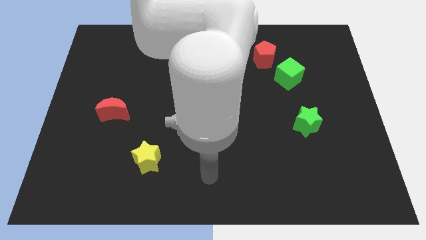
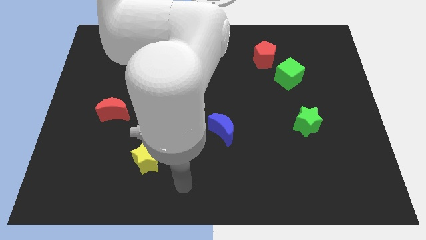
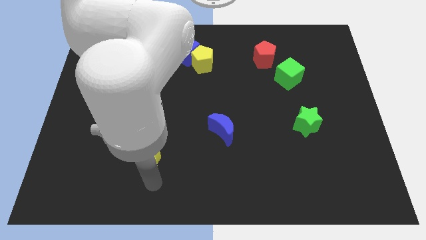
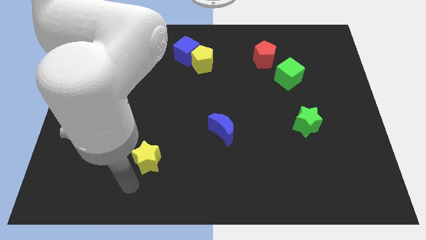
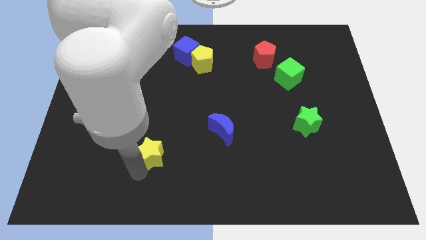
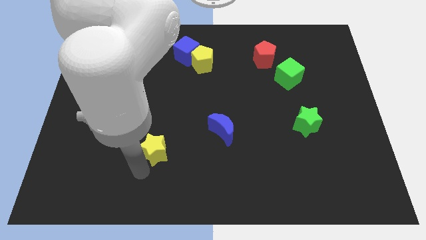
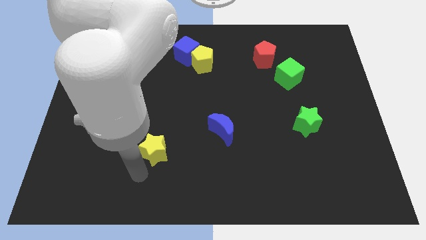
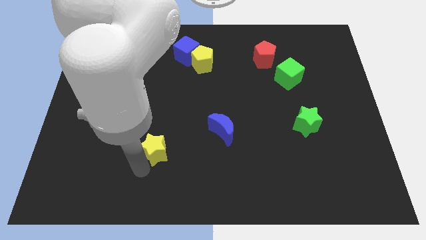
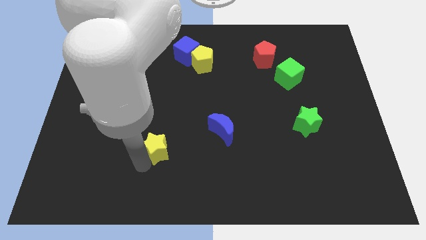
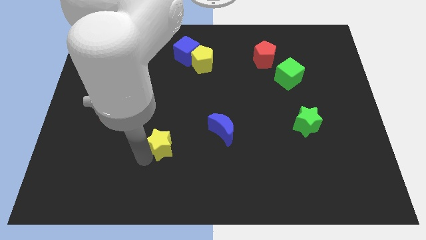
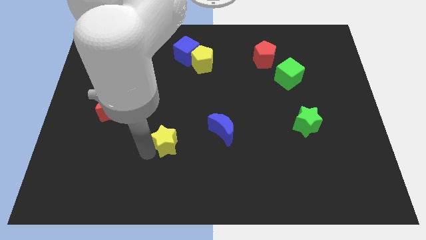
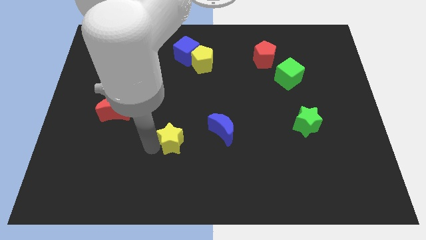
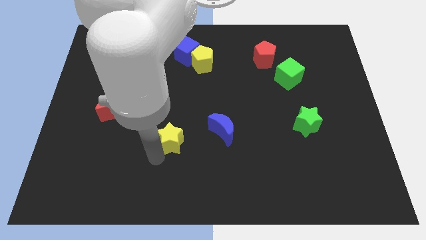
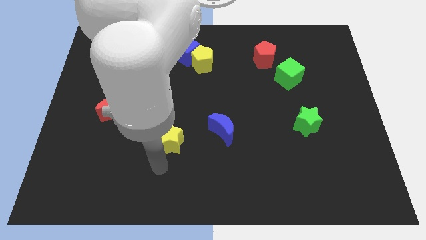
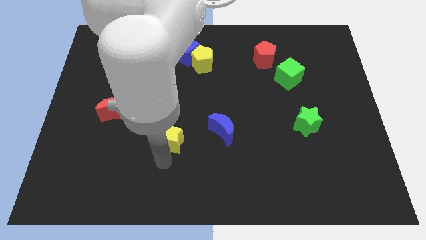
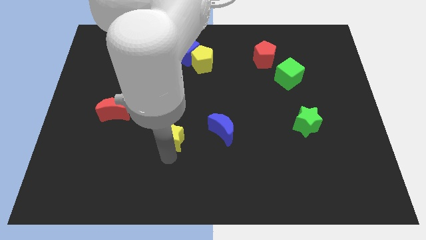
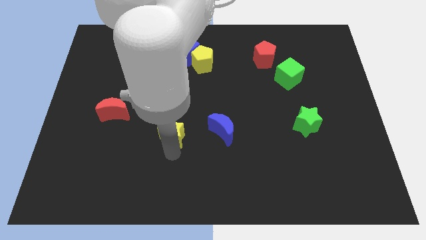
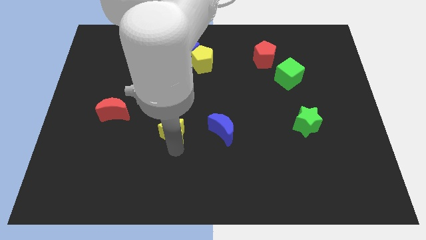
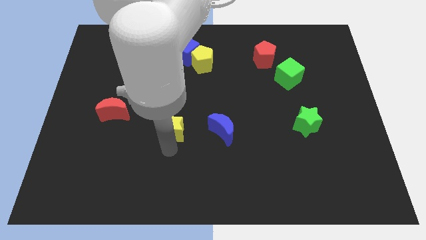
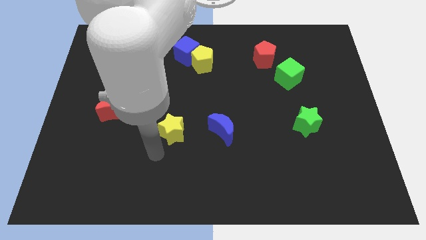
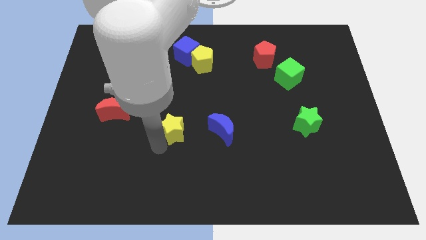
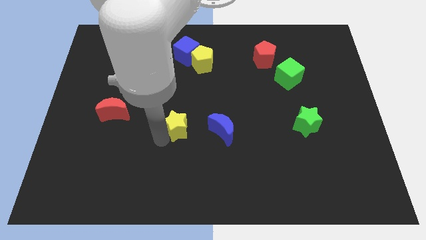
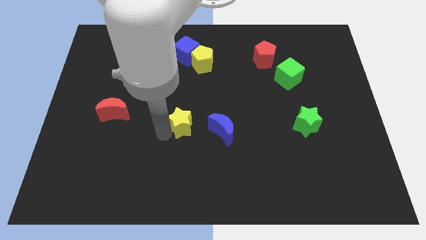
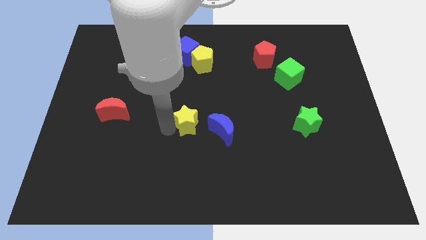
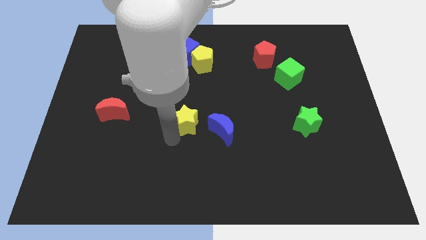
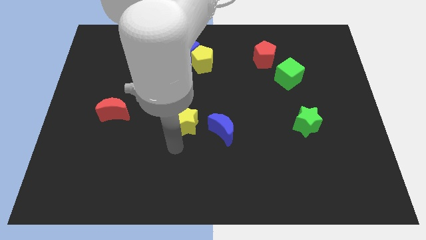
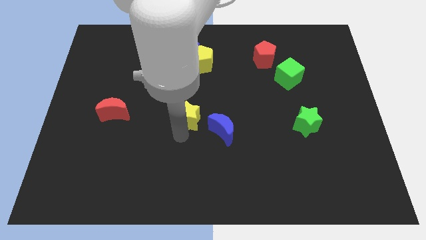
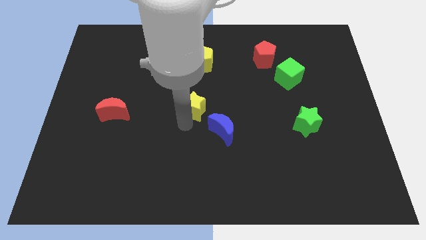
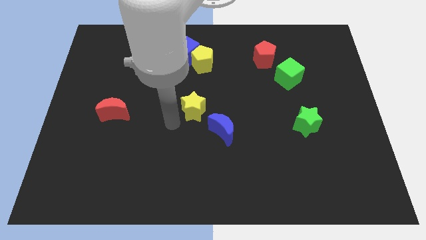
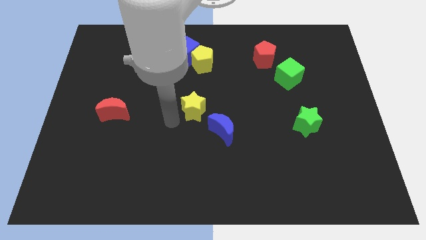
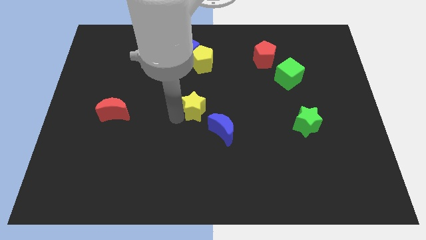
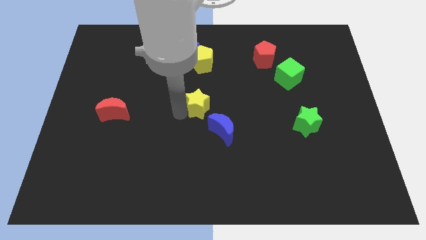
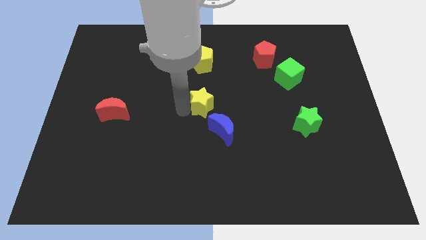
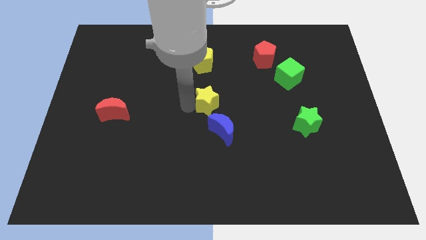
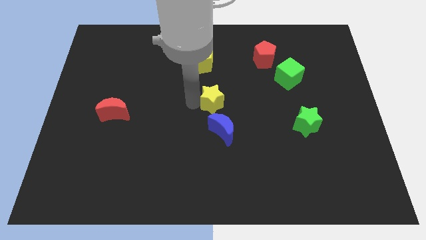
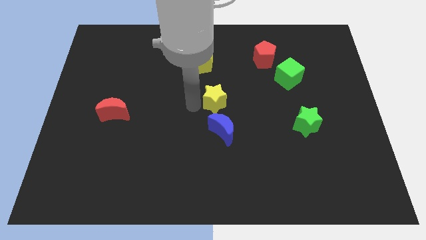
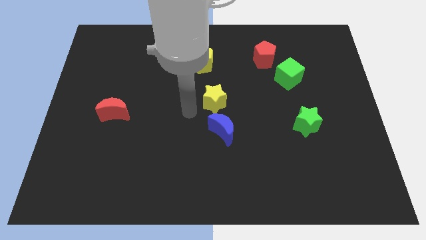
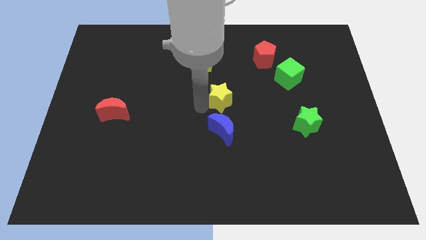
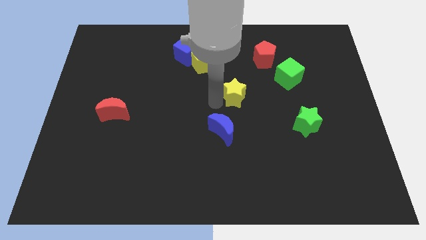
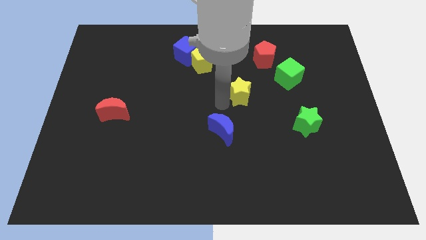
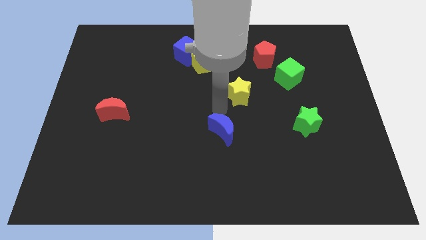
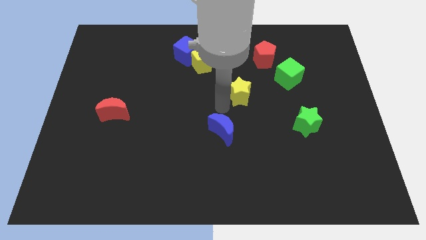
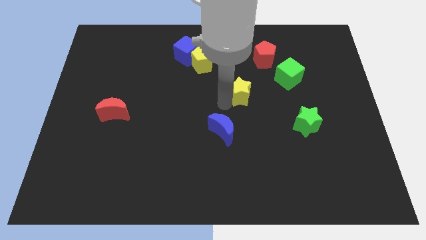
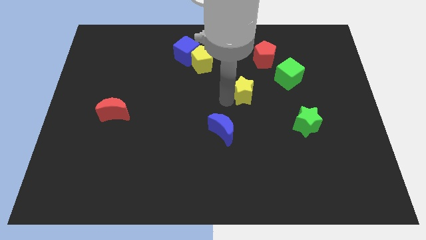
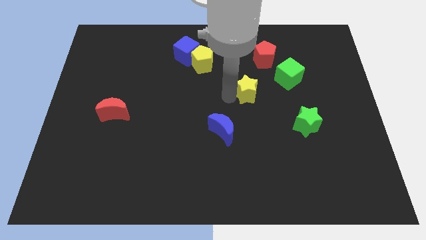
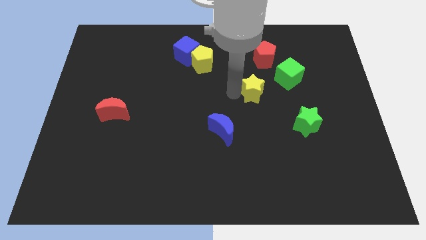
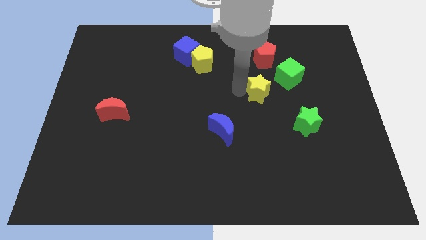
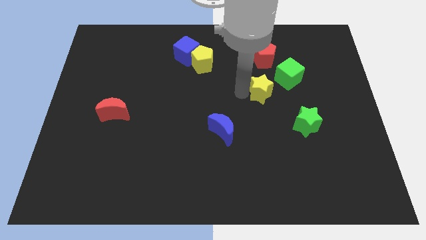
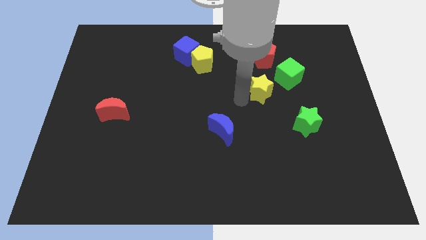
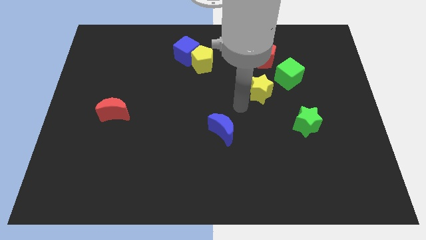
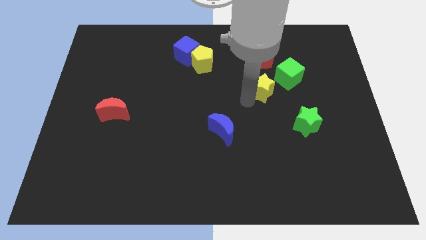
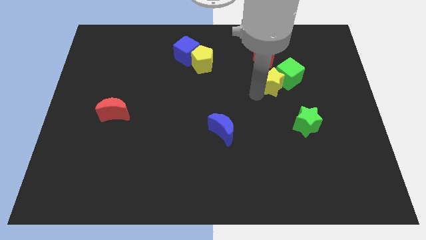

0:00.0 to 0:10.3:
move the yellow star towards the green cube

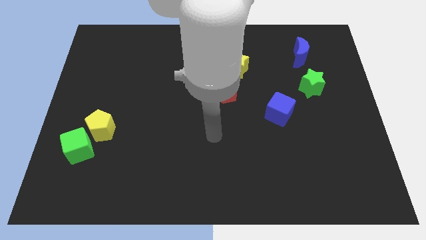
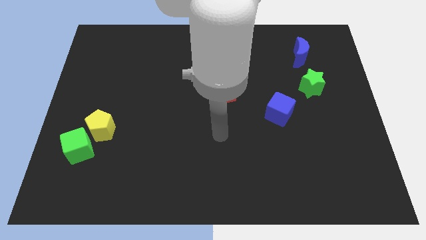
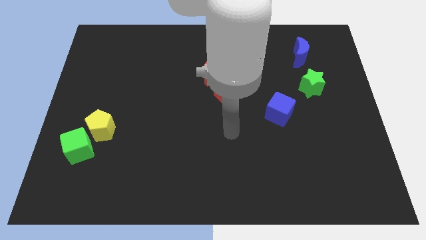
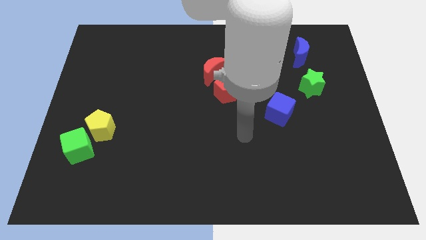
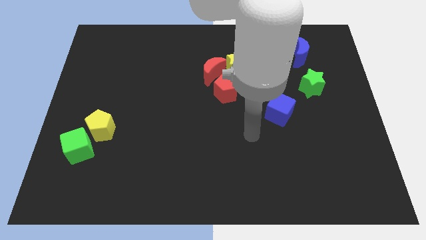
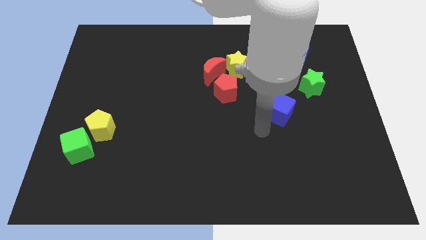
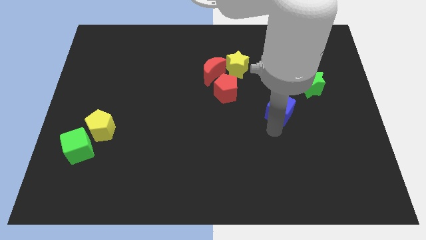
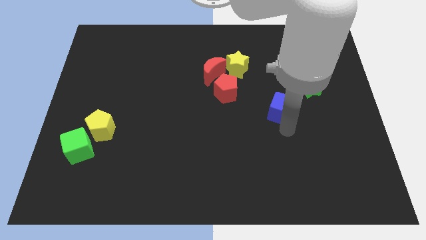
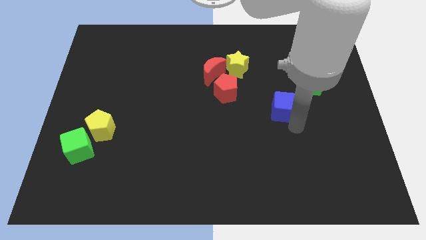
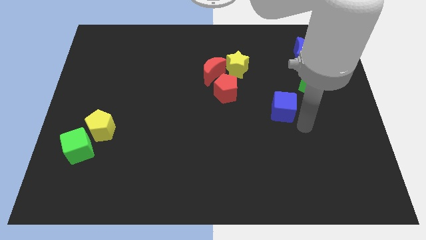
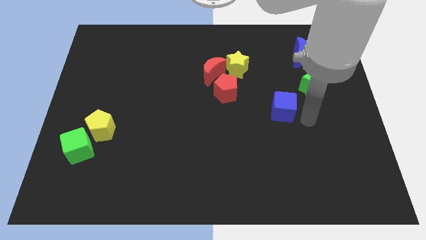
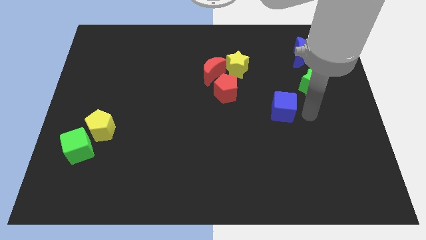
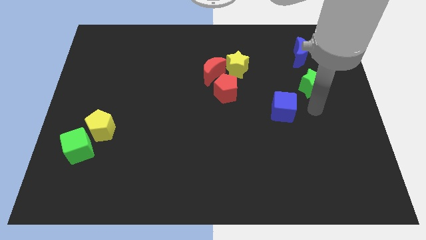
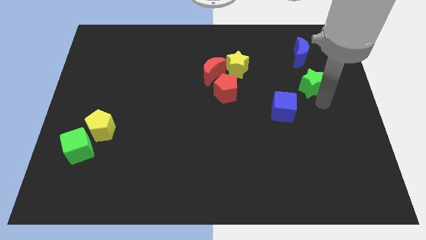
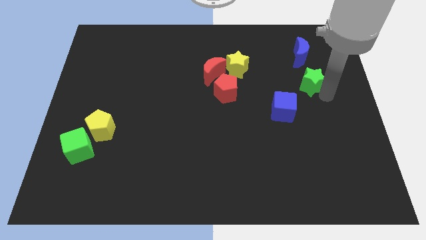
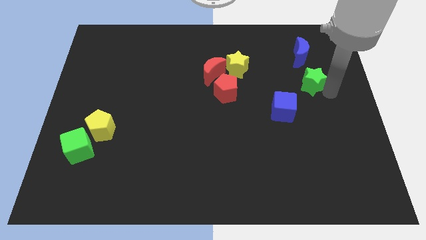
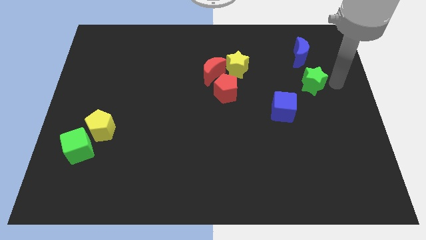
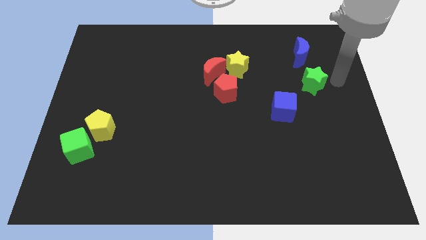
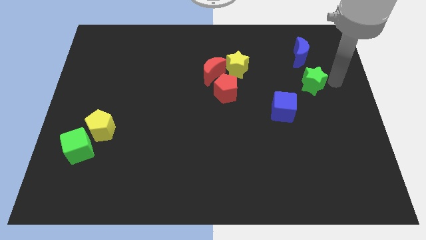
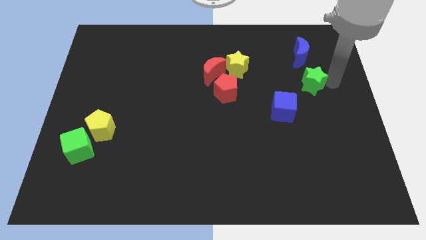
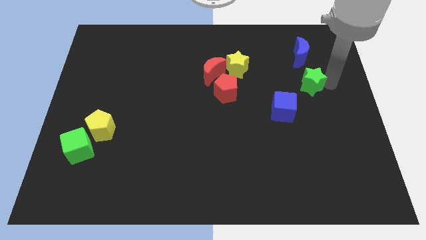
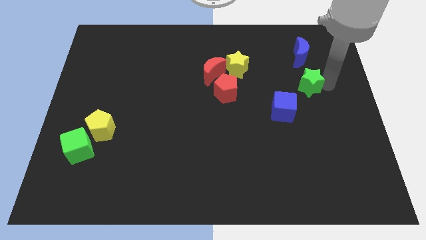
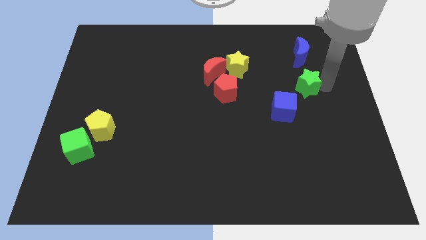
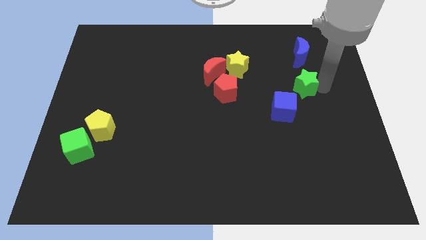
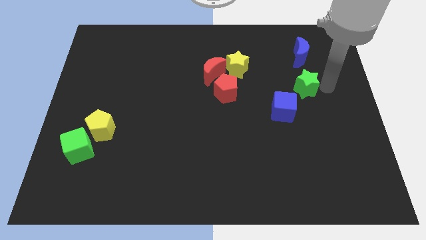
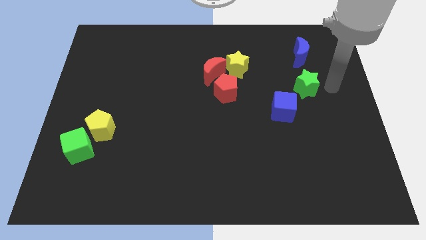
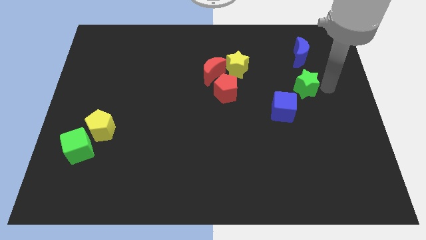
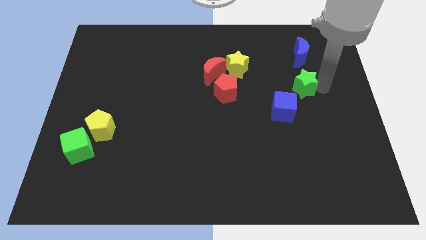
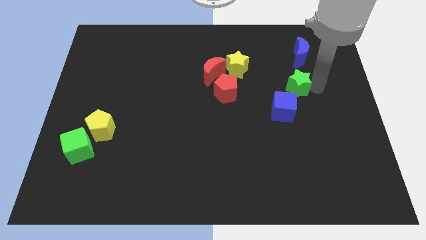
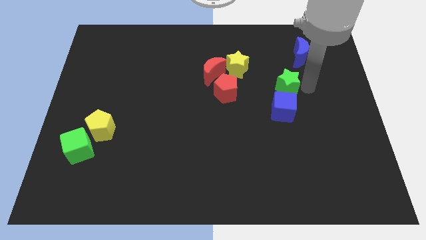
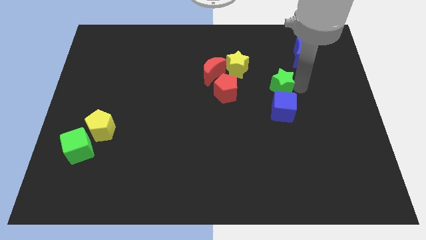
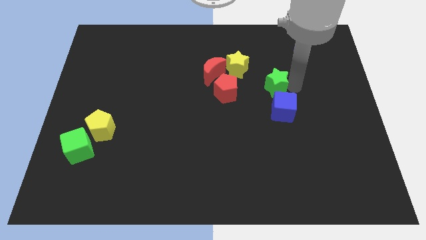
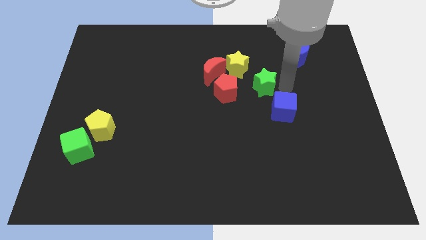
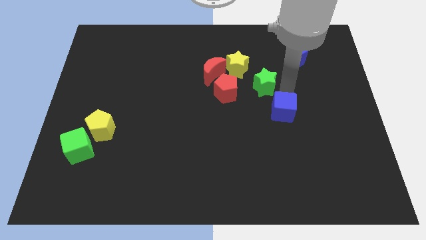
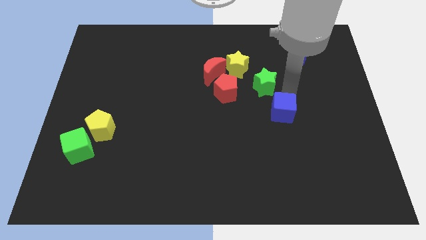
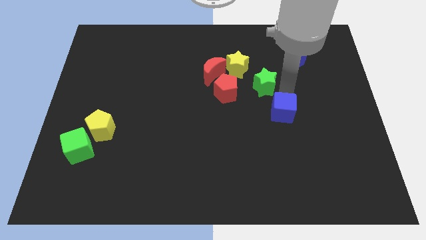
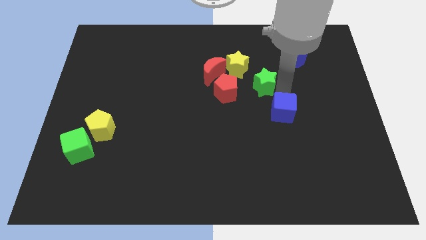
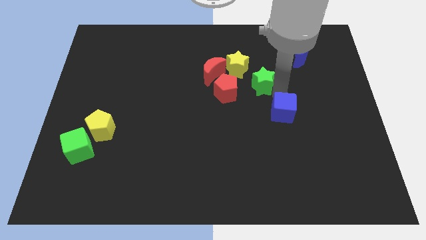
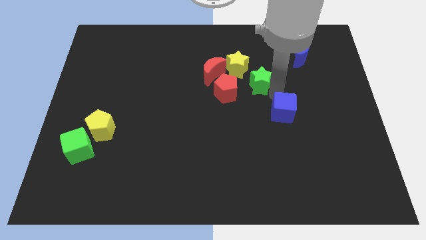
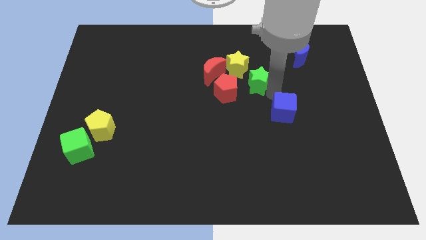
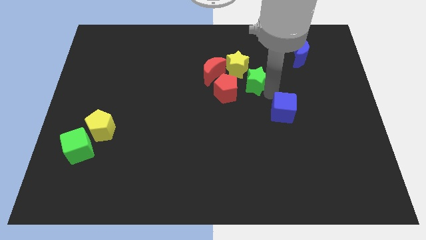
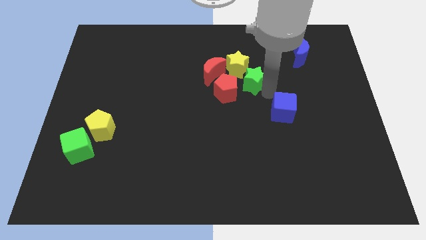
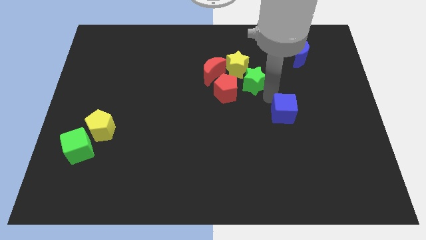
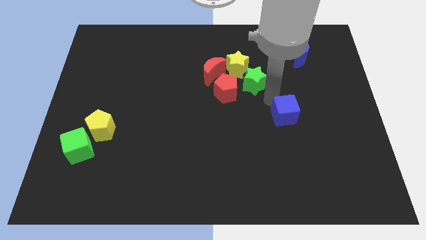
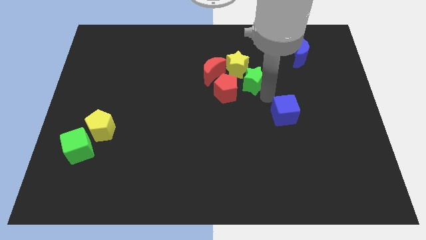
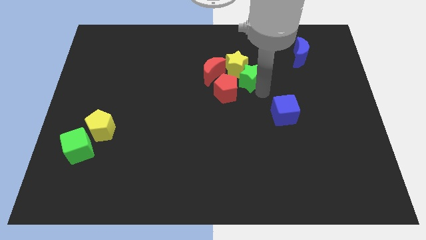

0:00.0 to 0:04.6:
push the green star towards the yellow star
